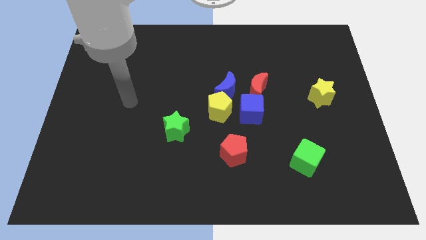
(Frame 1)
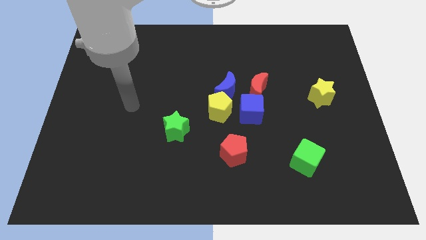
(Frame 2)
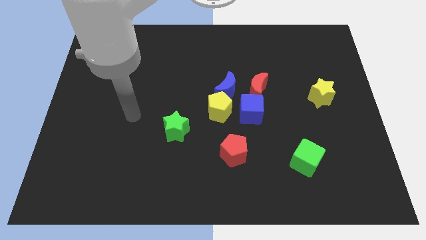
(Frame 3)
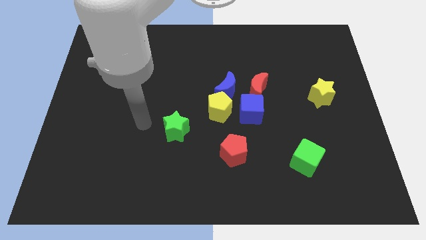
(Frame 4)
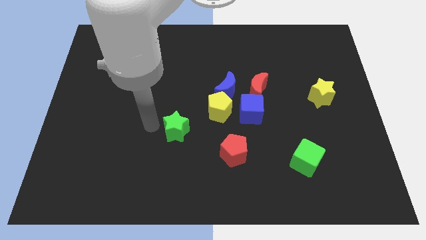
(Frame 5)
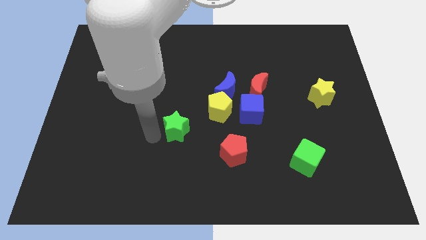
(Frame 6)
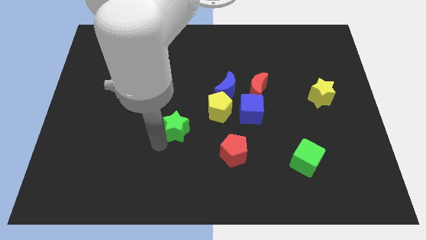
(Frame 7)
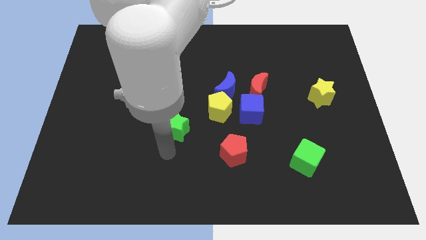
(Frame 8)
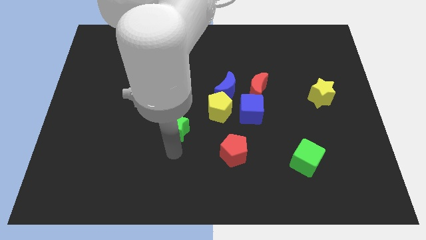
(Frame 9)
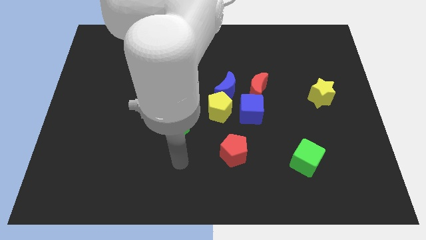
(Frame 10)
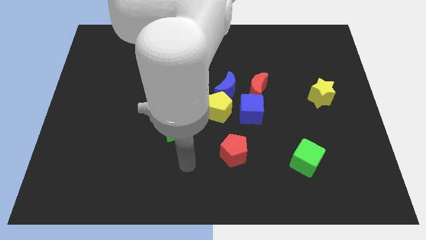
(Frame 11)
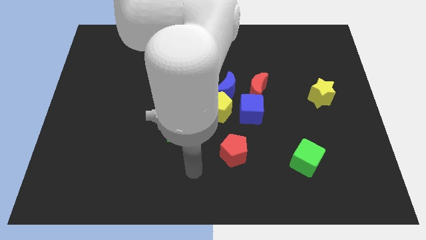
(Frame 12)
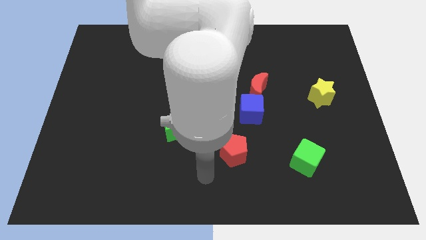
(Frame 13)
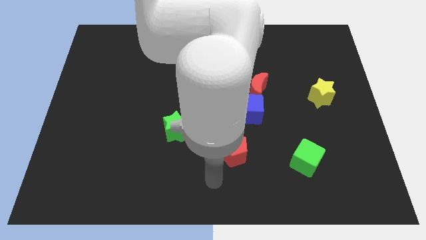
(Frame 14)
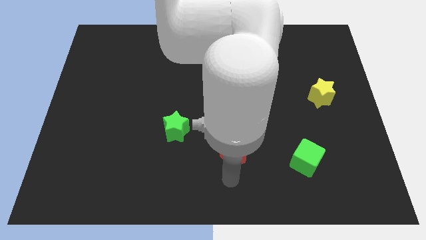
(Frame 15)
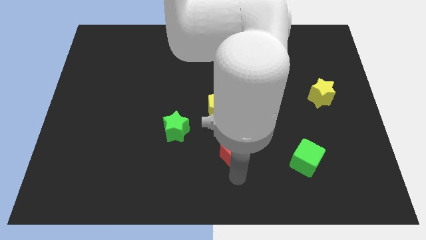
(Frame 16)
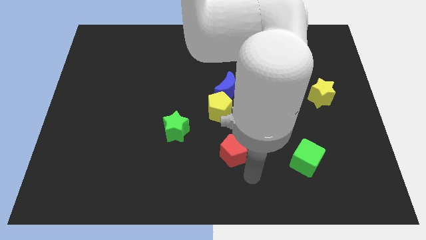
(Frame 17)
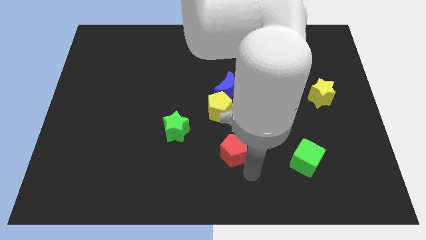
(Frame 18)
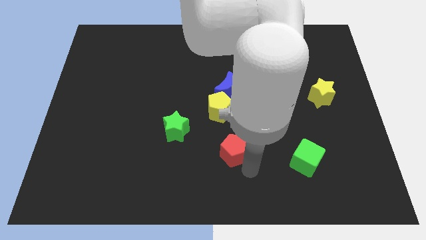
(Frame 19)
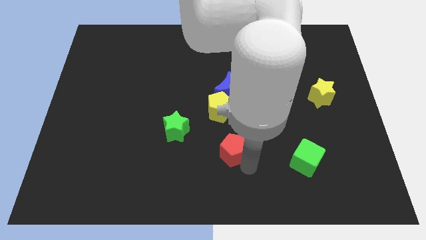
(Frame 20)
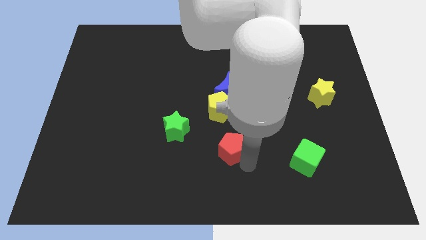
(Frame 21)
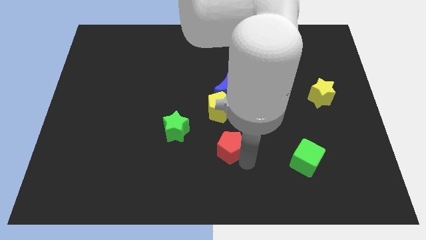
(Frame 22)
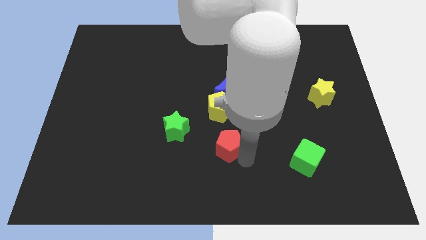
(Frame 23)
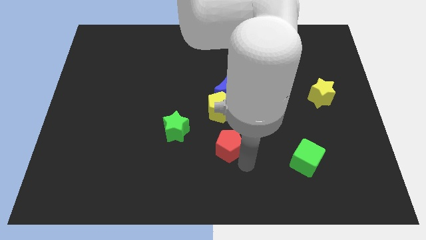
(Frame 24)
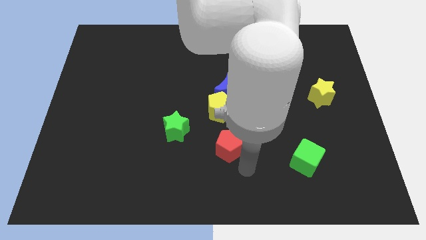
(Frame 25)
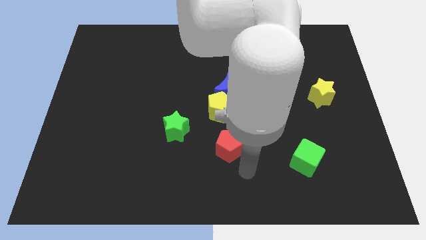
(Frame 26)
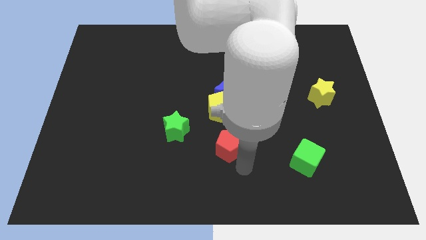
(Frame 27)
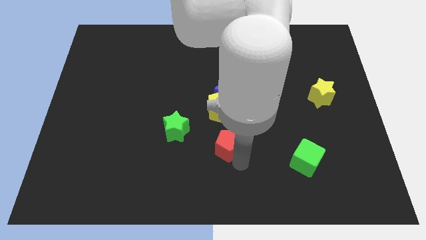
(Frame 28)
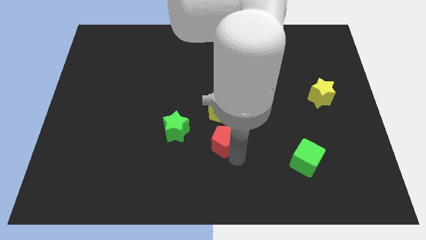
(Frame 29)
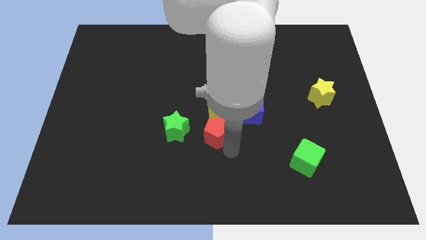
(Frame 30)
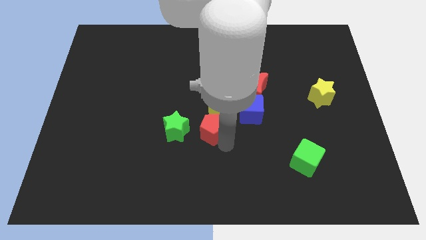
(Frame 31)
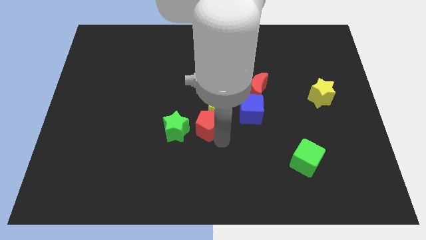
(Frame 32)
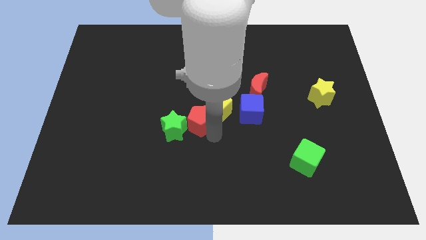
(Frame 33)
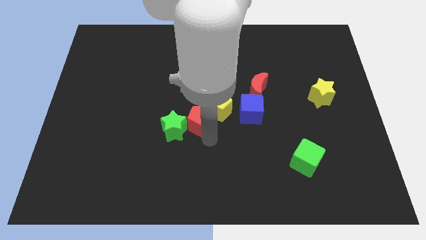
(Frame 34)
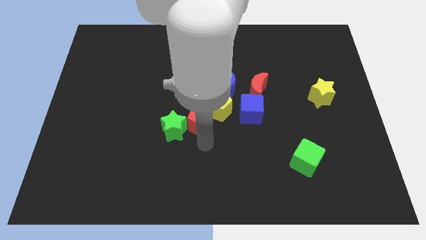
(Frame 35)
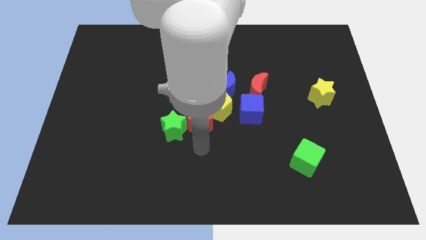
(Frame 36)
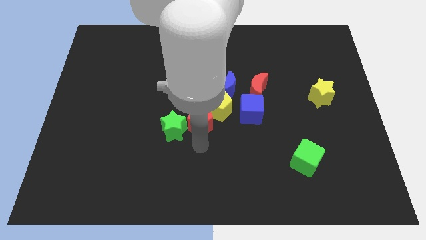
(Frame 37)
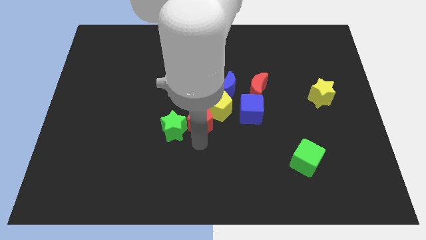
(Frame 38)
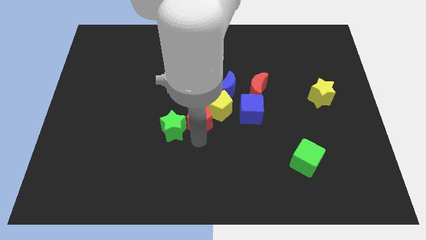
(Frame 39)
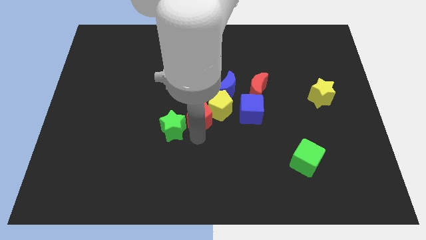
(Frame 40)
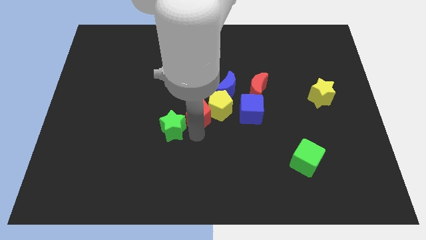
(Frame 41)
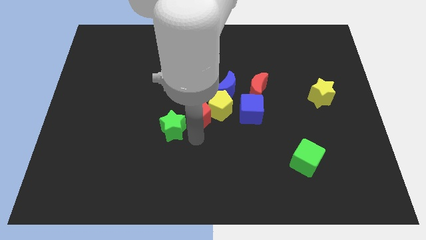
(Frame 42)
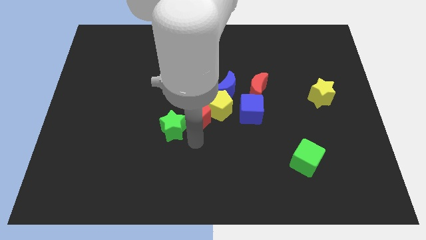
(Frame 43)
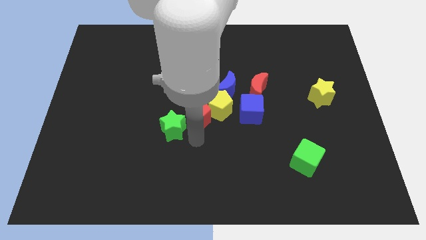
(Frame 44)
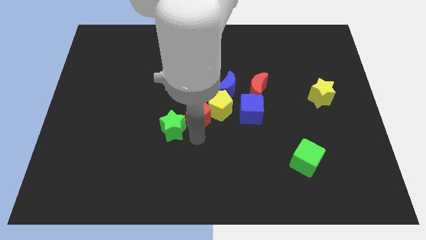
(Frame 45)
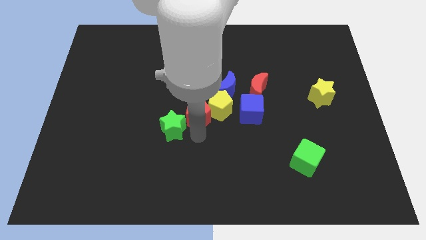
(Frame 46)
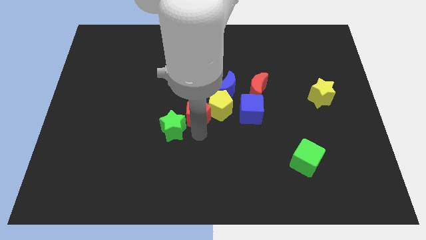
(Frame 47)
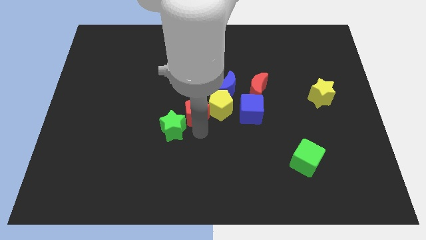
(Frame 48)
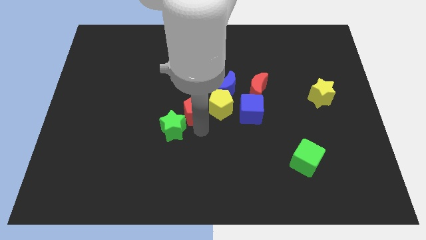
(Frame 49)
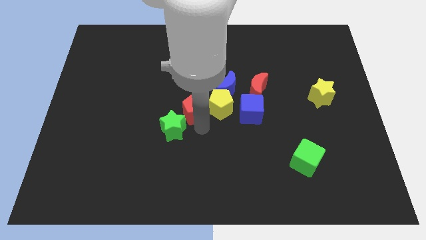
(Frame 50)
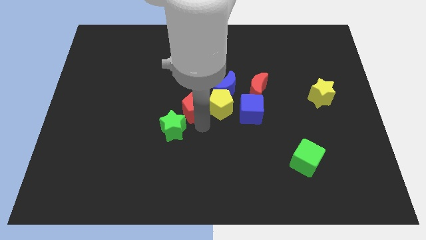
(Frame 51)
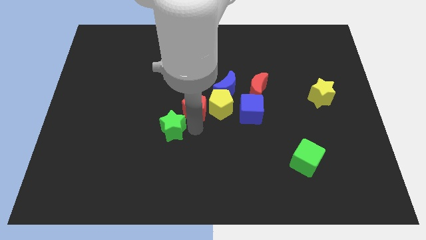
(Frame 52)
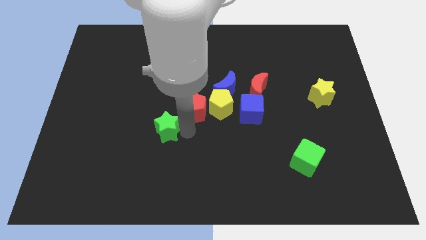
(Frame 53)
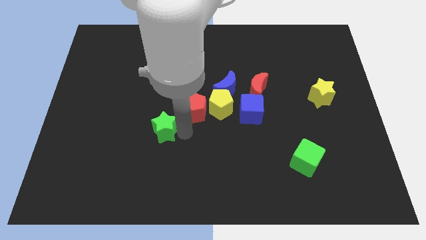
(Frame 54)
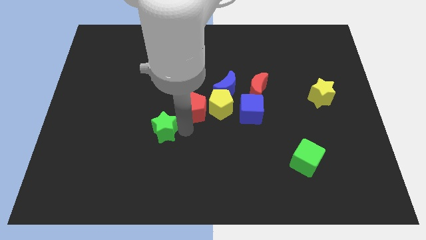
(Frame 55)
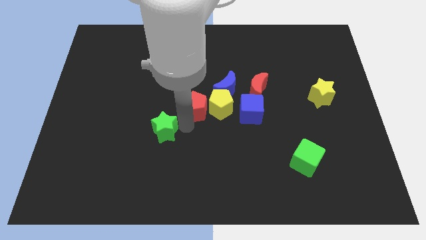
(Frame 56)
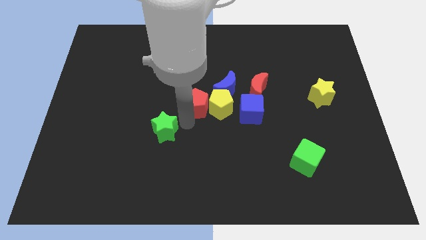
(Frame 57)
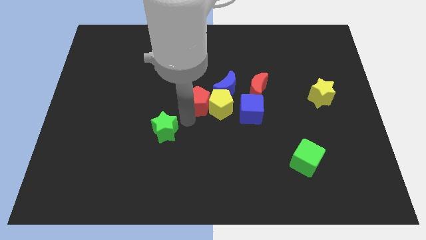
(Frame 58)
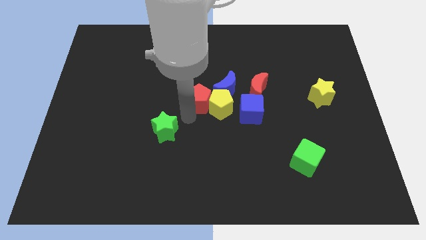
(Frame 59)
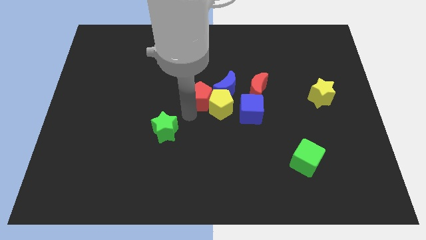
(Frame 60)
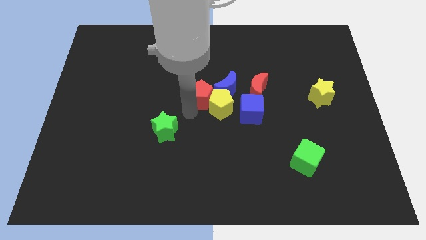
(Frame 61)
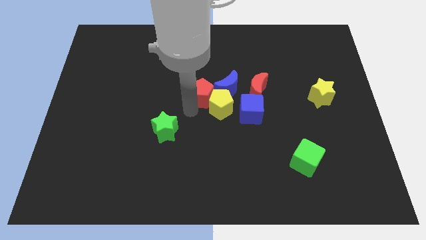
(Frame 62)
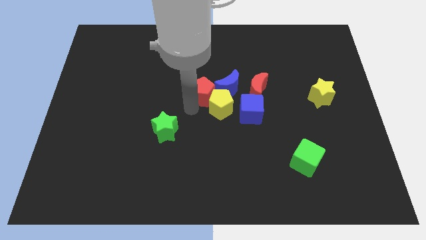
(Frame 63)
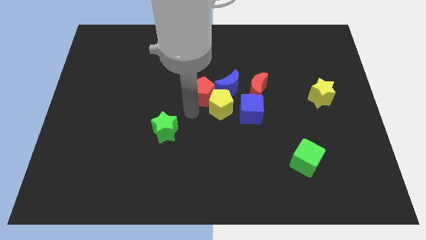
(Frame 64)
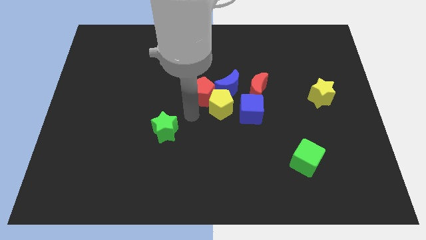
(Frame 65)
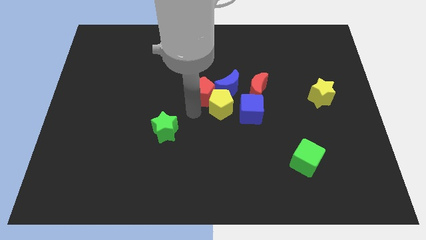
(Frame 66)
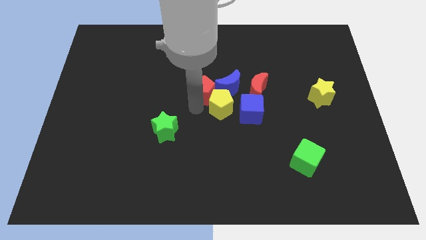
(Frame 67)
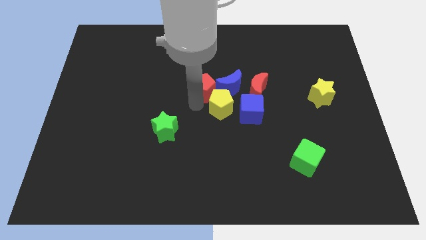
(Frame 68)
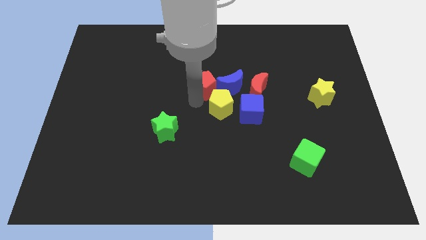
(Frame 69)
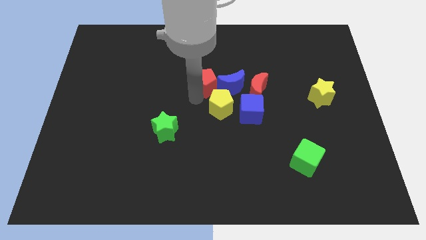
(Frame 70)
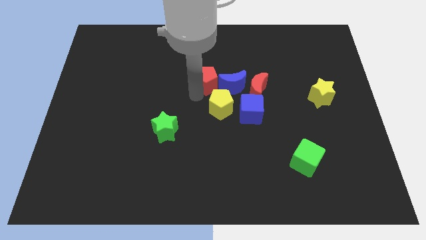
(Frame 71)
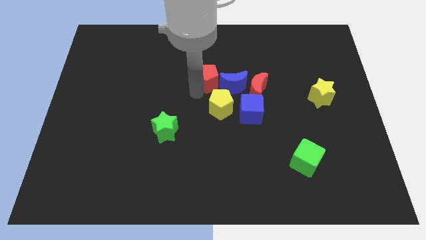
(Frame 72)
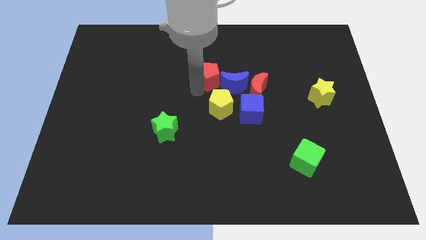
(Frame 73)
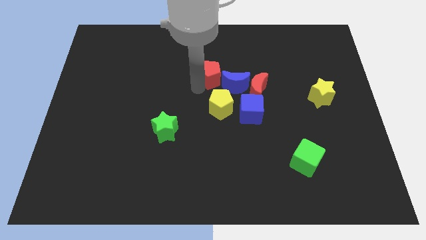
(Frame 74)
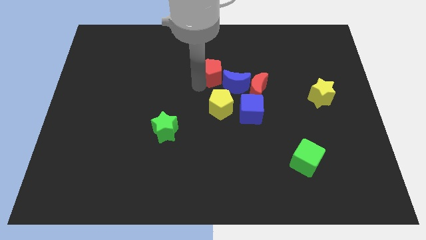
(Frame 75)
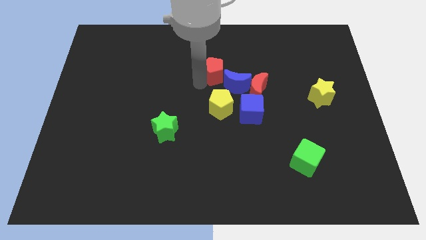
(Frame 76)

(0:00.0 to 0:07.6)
push the red pentagon to the top left side of the red moon
